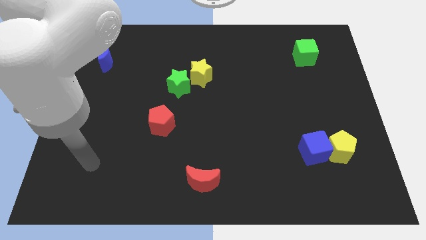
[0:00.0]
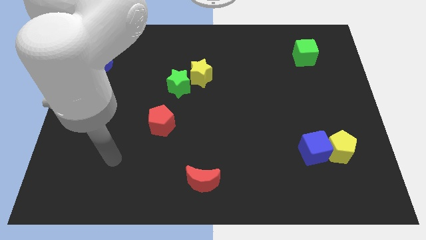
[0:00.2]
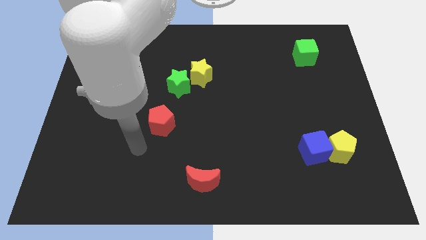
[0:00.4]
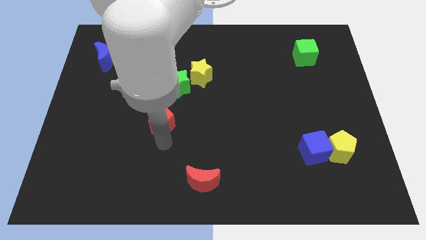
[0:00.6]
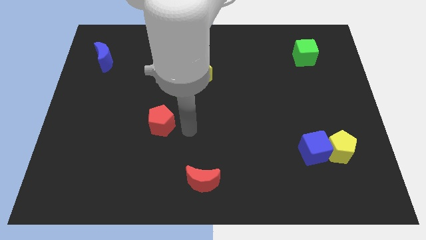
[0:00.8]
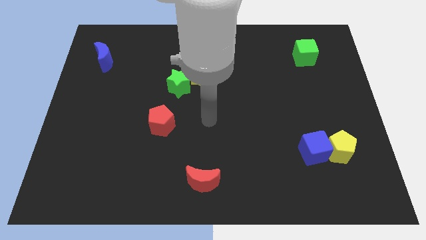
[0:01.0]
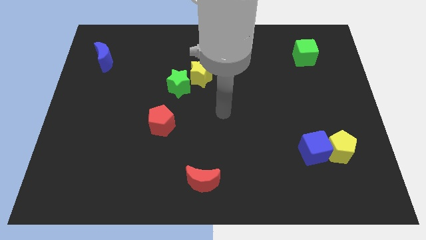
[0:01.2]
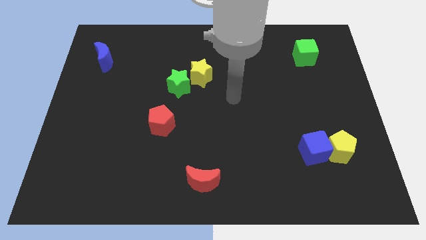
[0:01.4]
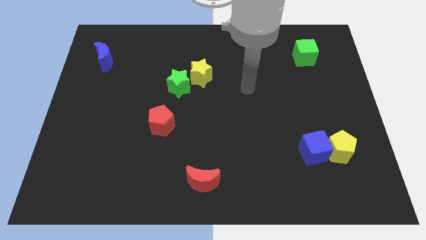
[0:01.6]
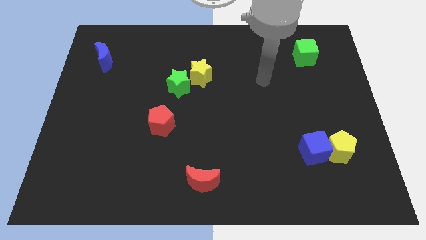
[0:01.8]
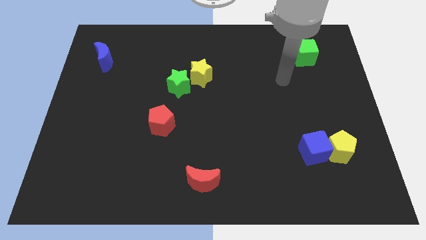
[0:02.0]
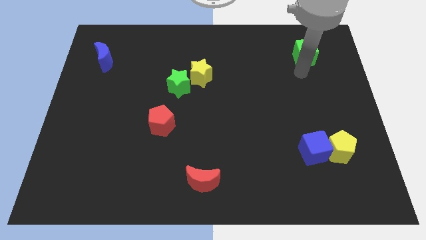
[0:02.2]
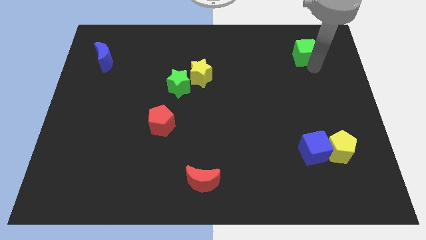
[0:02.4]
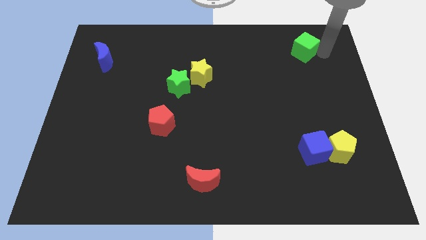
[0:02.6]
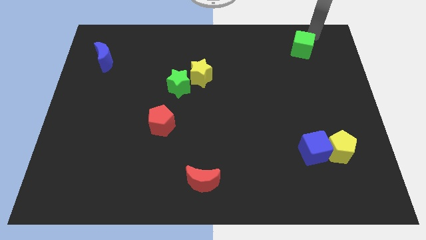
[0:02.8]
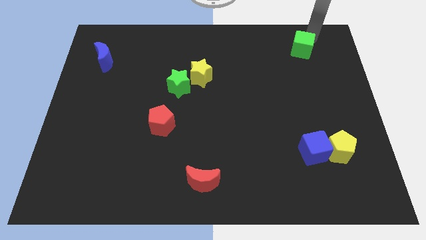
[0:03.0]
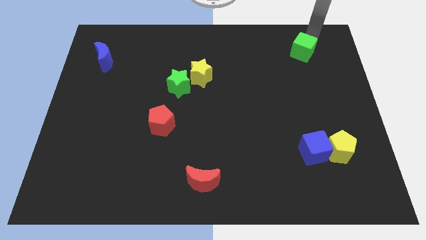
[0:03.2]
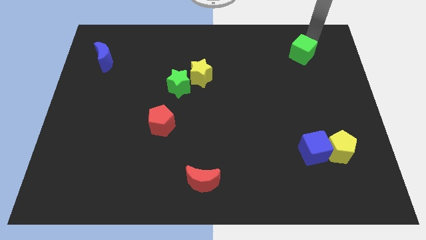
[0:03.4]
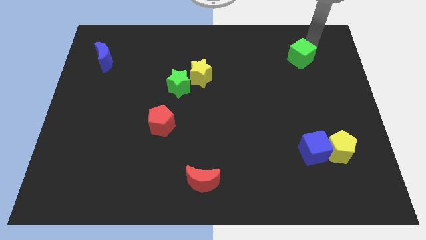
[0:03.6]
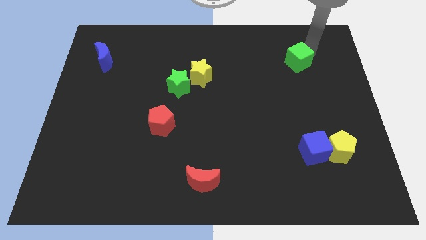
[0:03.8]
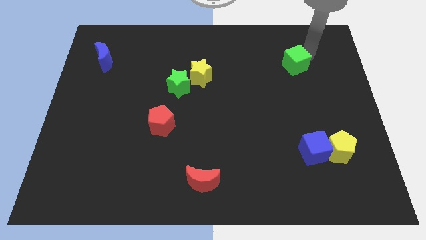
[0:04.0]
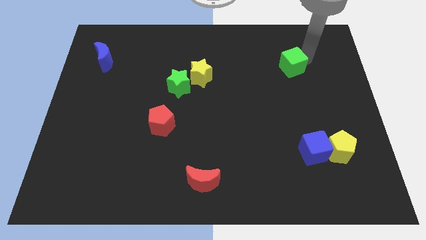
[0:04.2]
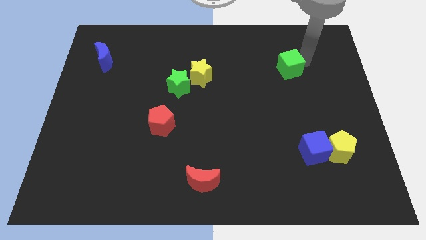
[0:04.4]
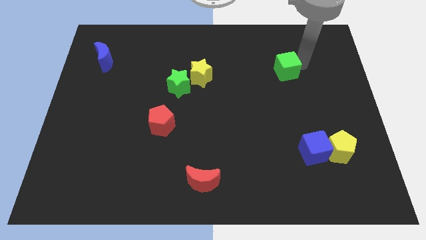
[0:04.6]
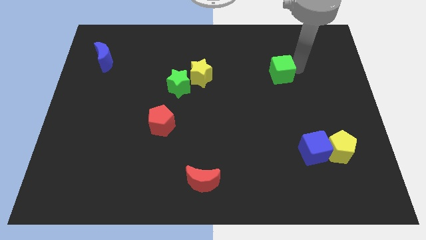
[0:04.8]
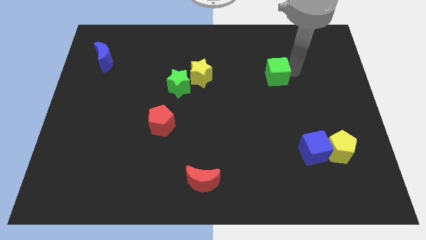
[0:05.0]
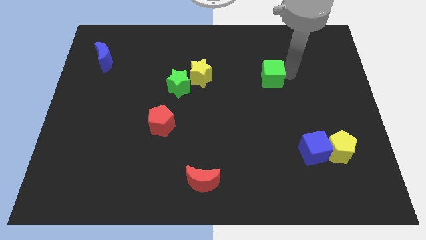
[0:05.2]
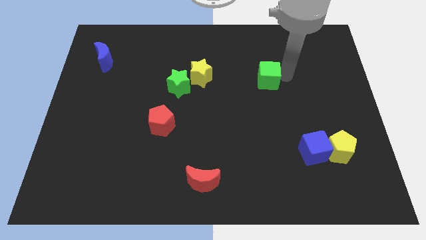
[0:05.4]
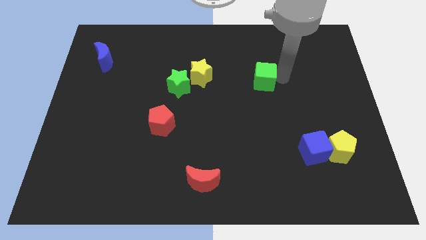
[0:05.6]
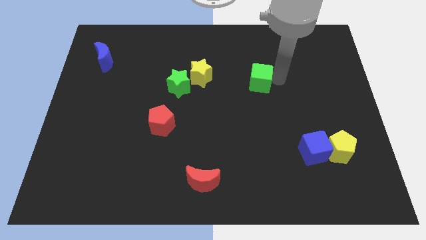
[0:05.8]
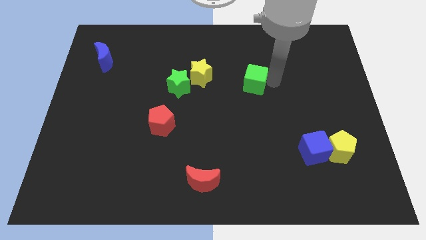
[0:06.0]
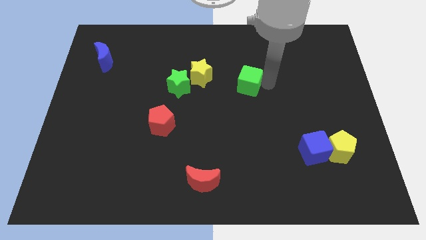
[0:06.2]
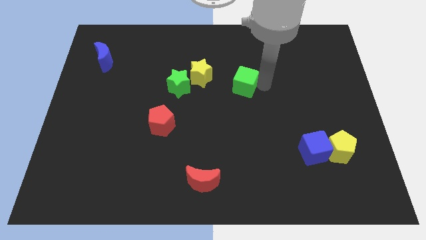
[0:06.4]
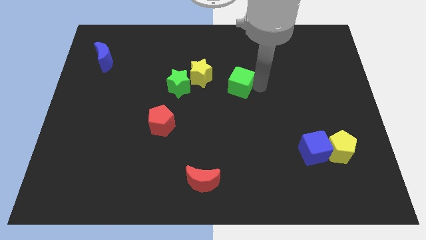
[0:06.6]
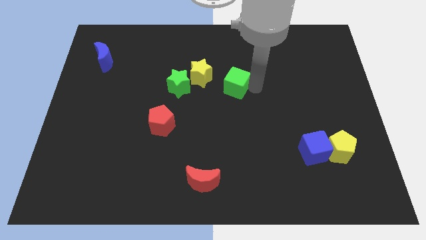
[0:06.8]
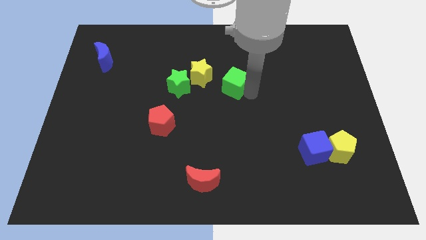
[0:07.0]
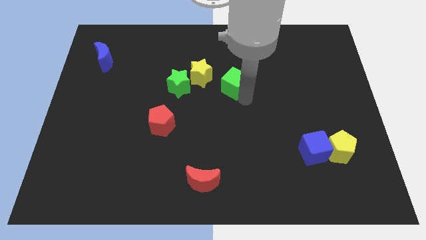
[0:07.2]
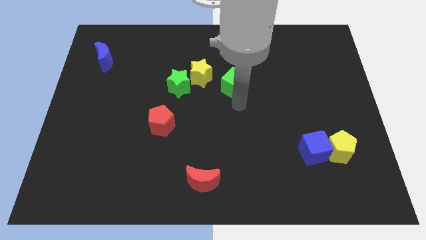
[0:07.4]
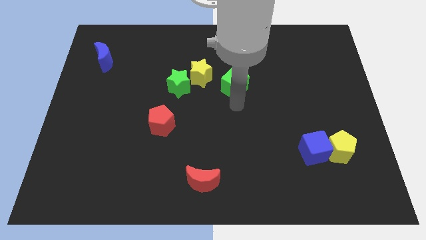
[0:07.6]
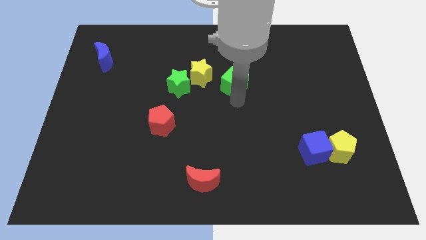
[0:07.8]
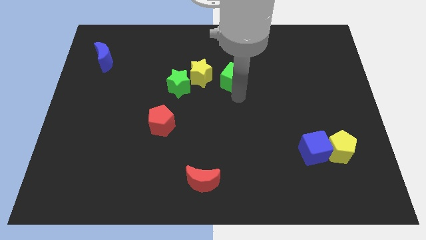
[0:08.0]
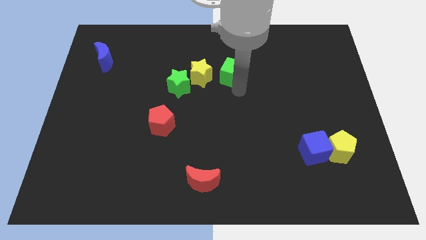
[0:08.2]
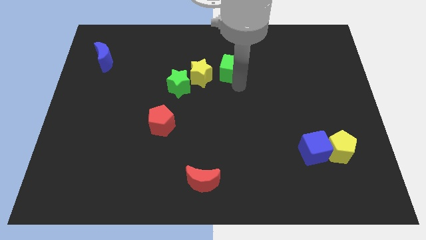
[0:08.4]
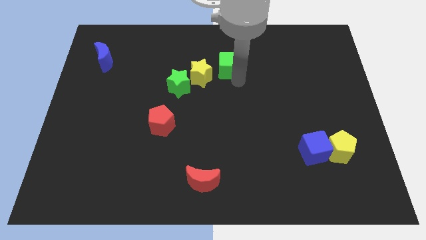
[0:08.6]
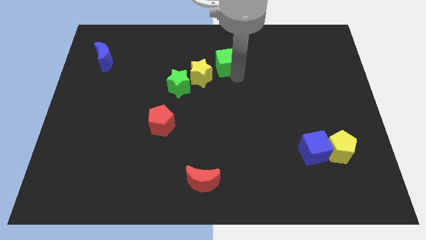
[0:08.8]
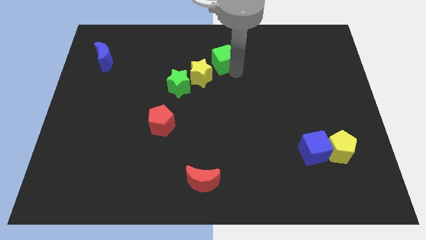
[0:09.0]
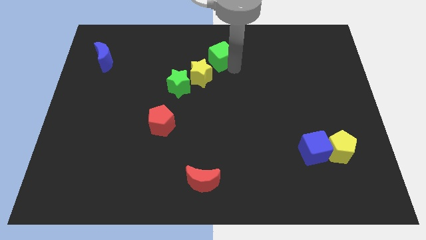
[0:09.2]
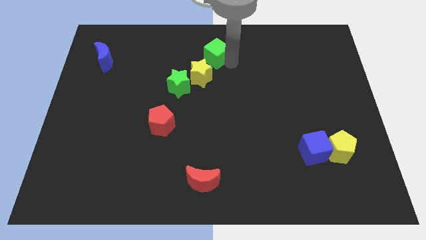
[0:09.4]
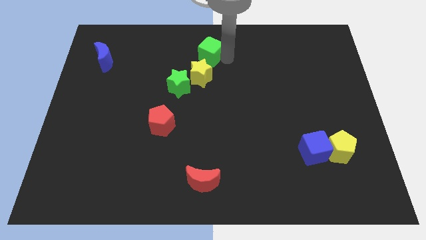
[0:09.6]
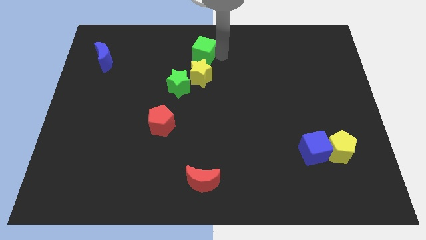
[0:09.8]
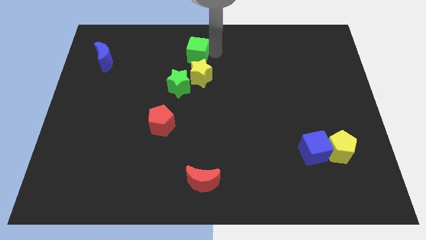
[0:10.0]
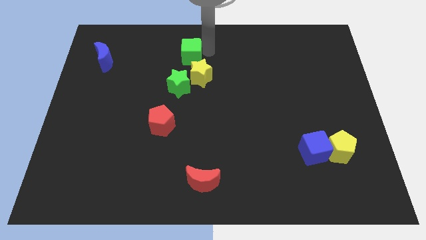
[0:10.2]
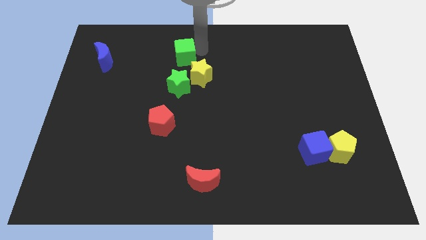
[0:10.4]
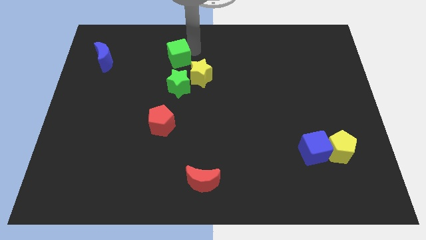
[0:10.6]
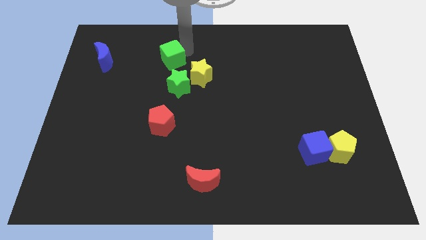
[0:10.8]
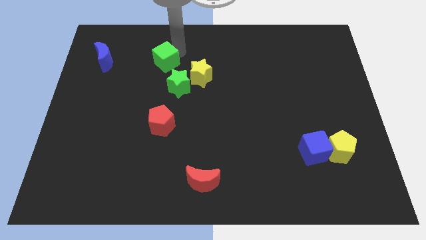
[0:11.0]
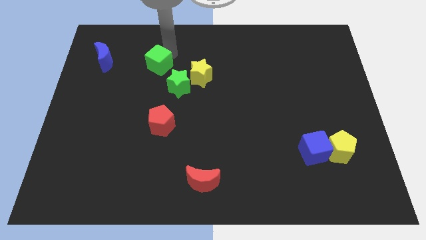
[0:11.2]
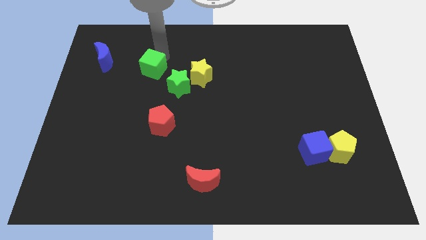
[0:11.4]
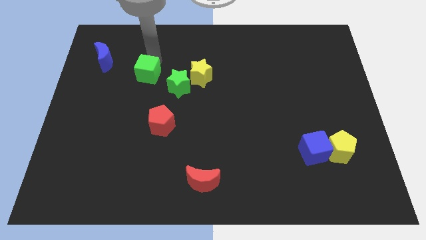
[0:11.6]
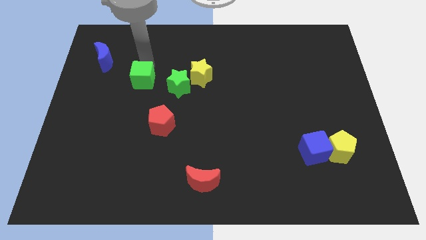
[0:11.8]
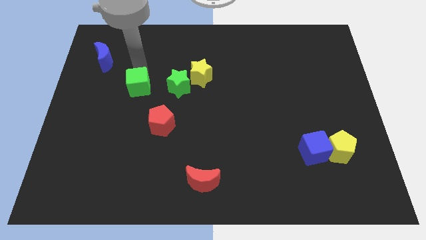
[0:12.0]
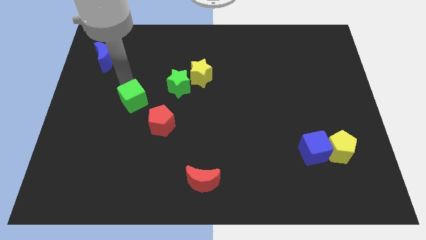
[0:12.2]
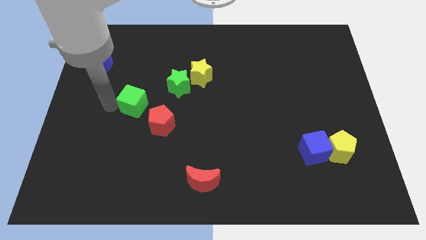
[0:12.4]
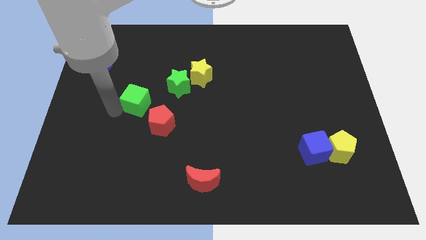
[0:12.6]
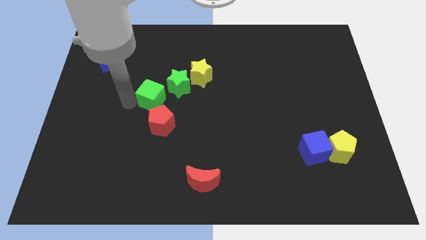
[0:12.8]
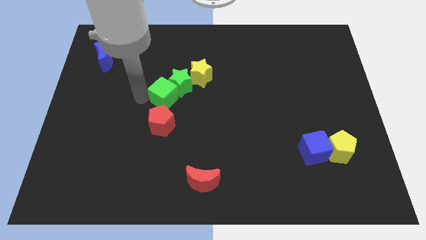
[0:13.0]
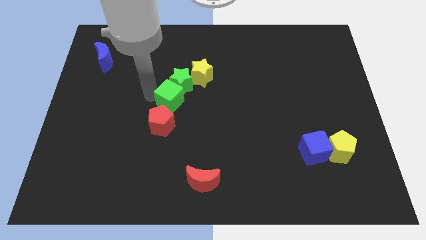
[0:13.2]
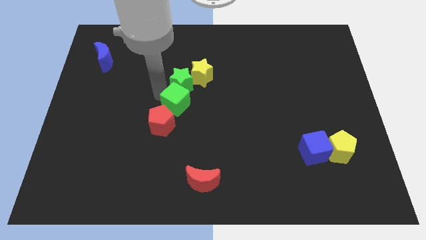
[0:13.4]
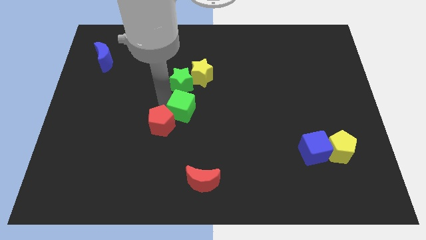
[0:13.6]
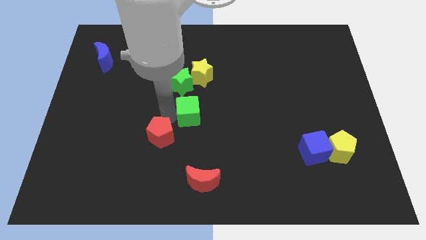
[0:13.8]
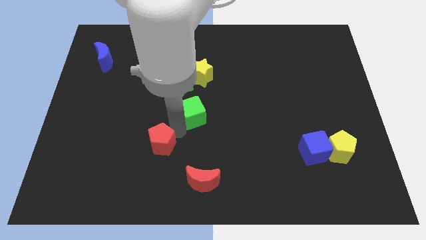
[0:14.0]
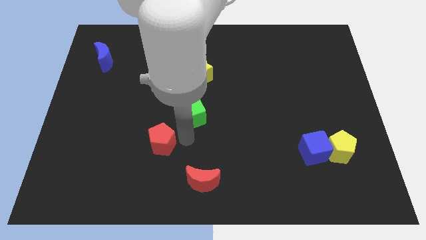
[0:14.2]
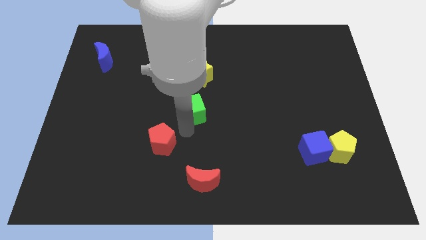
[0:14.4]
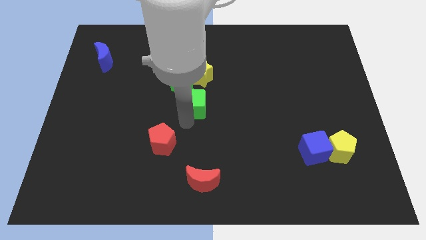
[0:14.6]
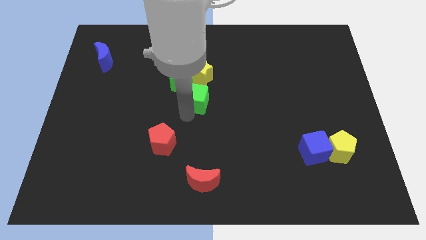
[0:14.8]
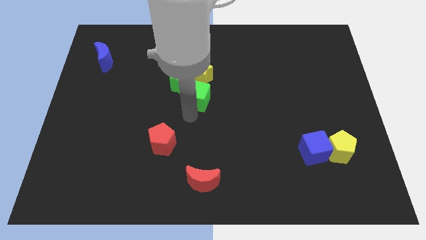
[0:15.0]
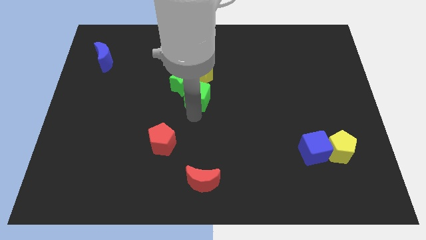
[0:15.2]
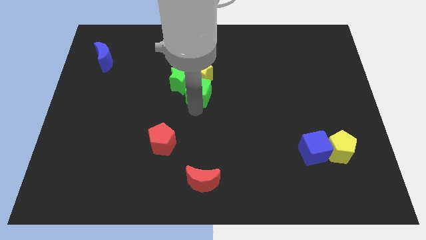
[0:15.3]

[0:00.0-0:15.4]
push the green cube to the yellow star

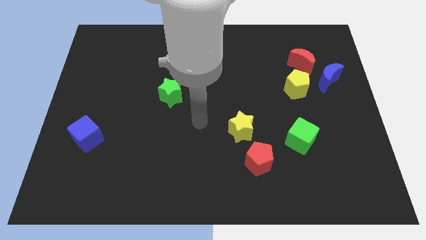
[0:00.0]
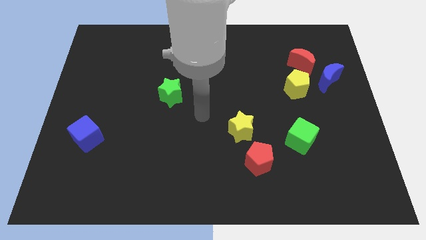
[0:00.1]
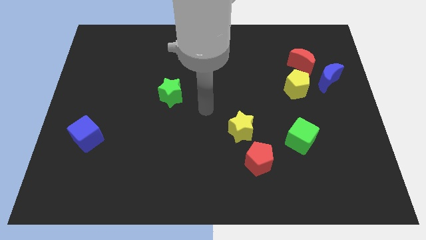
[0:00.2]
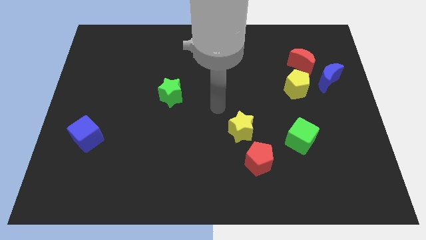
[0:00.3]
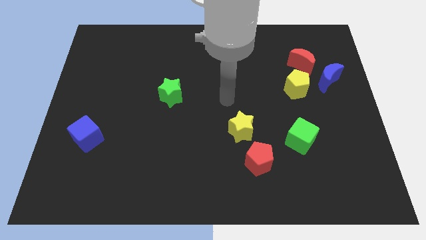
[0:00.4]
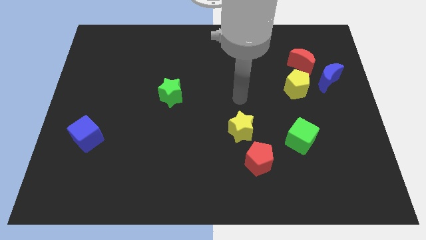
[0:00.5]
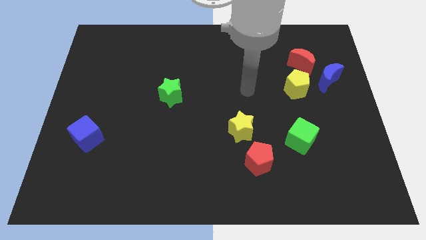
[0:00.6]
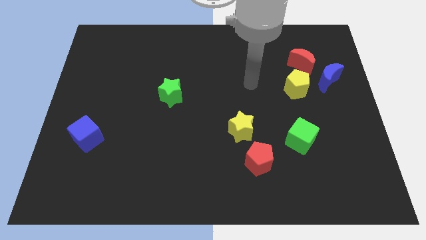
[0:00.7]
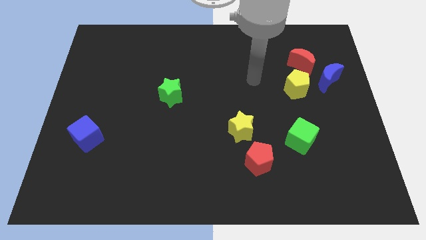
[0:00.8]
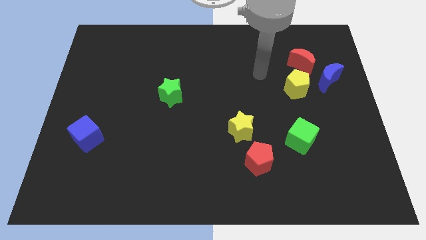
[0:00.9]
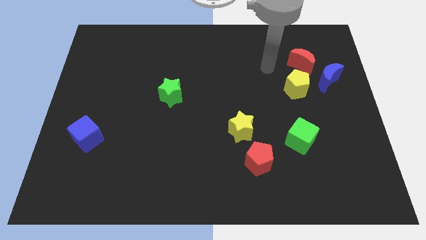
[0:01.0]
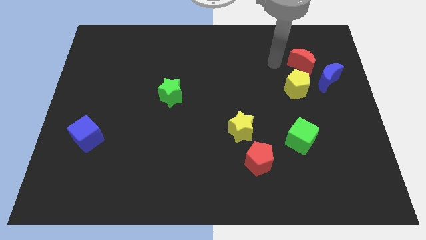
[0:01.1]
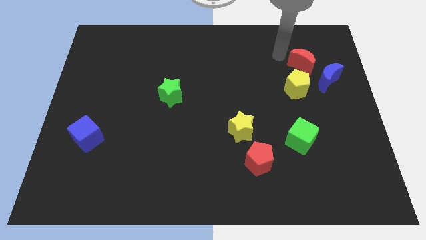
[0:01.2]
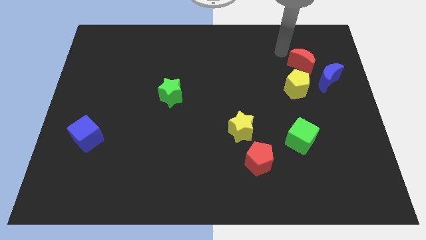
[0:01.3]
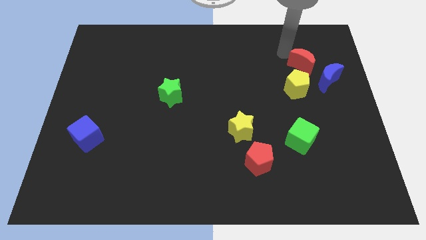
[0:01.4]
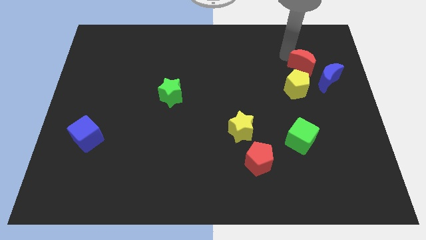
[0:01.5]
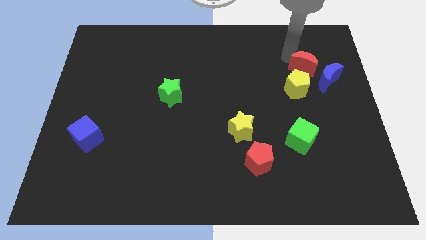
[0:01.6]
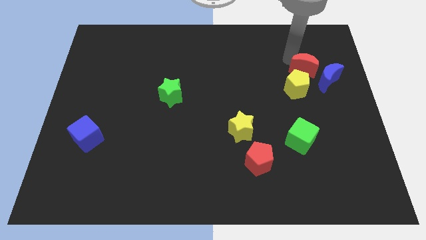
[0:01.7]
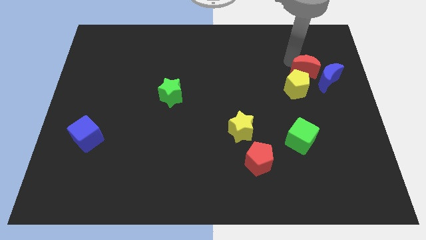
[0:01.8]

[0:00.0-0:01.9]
slide the red moon towards the blue moon
